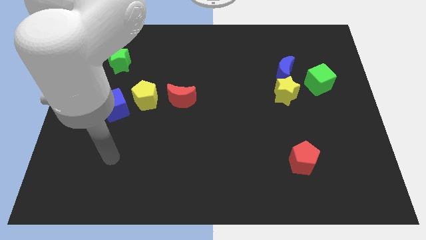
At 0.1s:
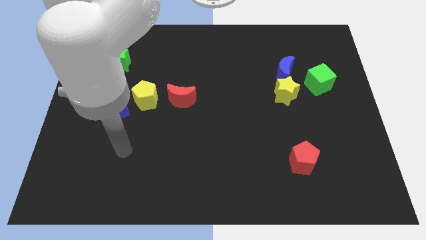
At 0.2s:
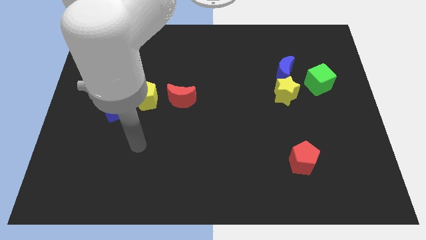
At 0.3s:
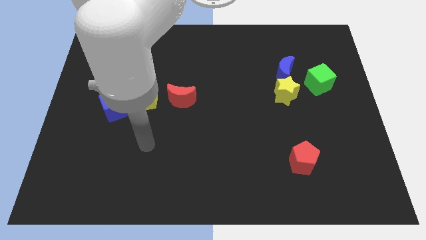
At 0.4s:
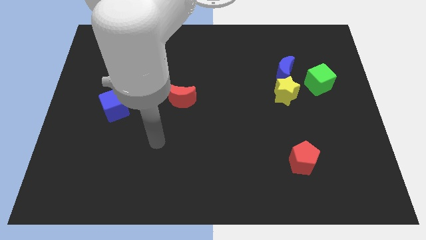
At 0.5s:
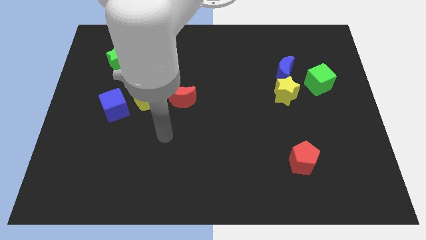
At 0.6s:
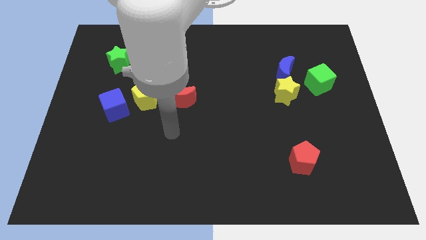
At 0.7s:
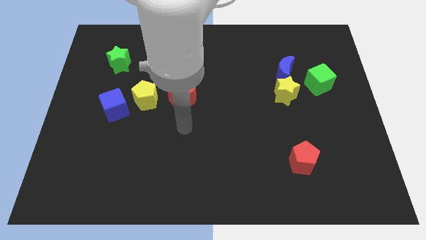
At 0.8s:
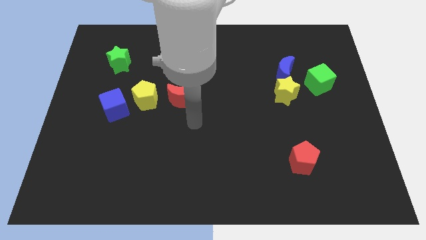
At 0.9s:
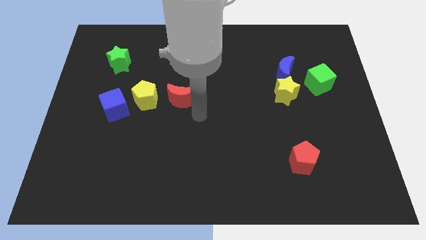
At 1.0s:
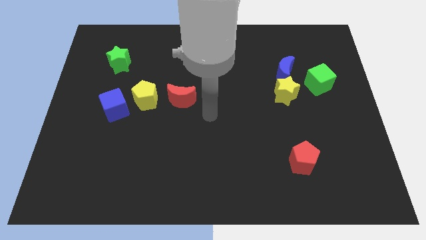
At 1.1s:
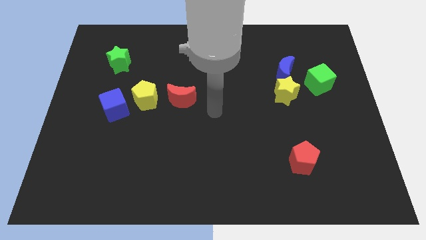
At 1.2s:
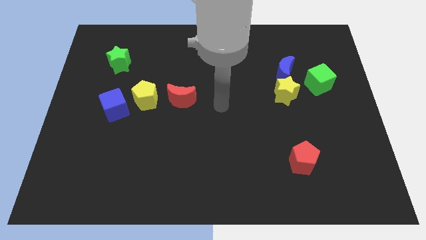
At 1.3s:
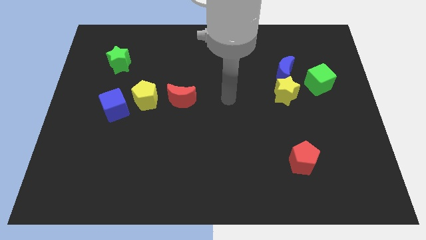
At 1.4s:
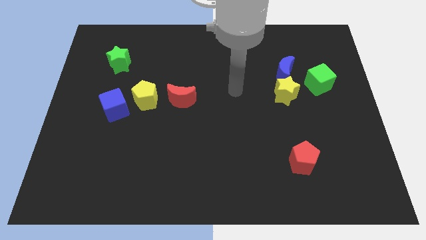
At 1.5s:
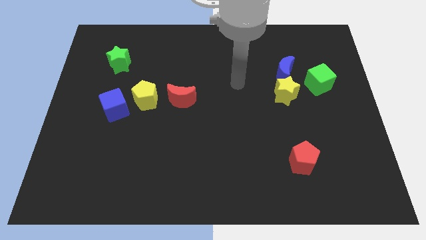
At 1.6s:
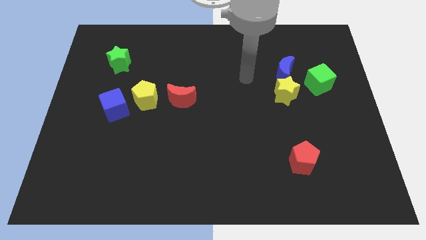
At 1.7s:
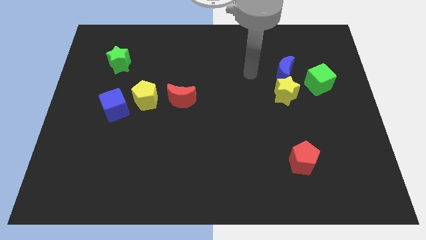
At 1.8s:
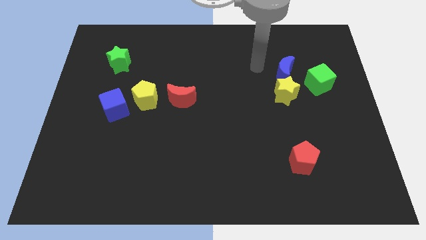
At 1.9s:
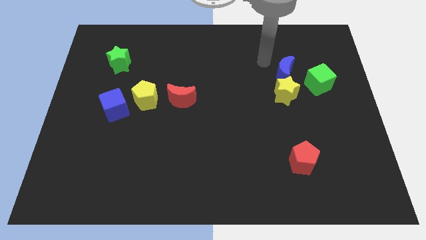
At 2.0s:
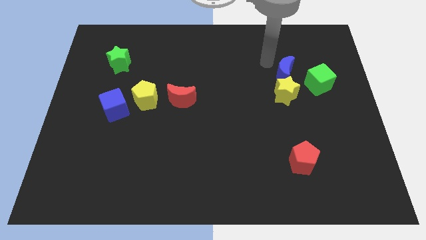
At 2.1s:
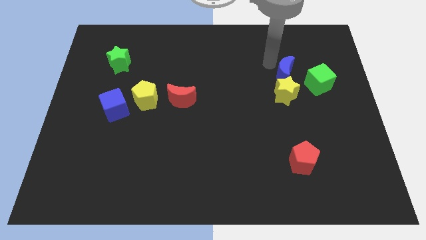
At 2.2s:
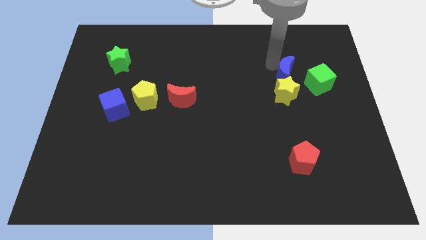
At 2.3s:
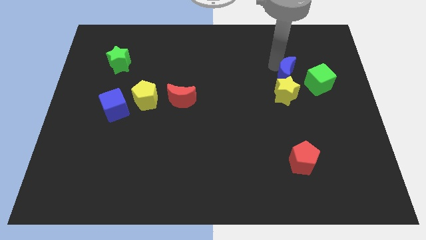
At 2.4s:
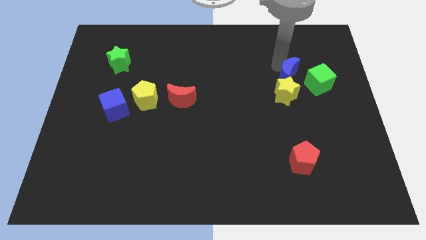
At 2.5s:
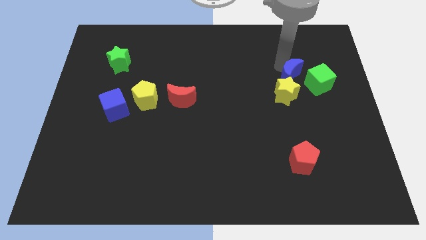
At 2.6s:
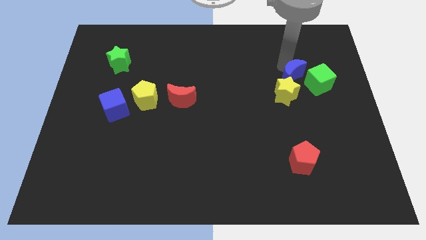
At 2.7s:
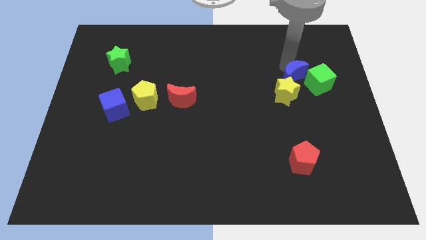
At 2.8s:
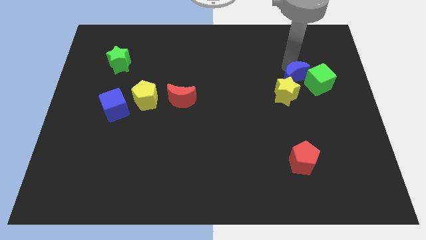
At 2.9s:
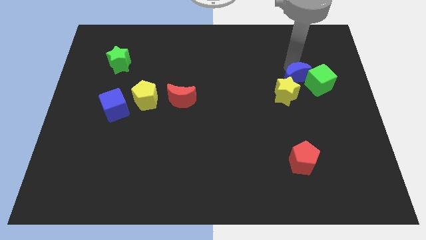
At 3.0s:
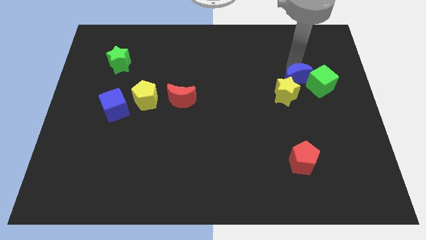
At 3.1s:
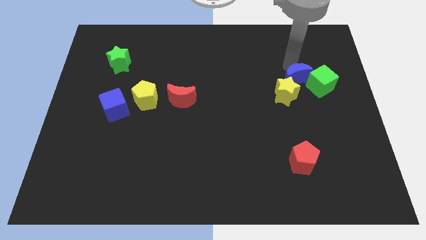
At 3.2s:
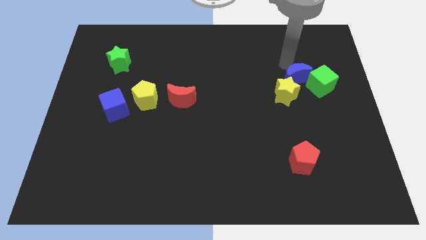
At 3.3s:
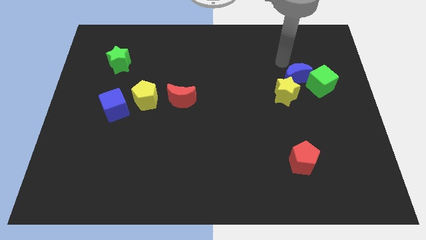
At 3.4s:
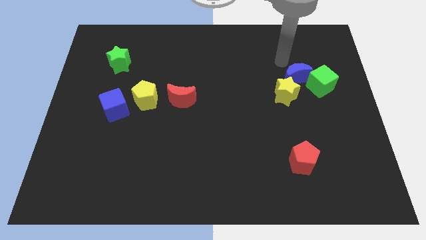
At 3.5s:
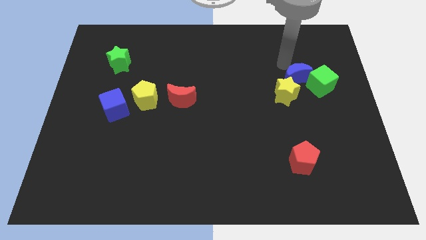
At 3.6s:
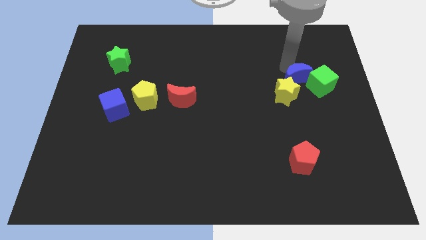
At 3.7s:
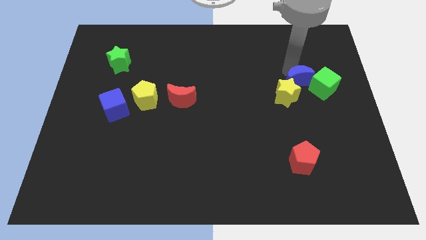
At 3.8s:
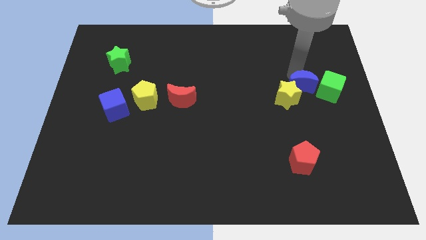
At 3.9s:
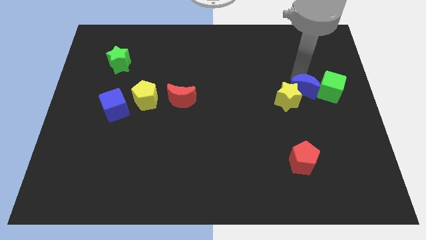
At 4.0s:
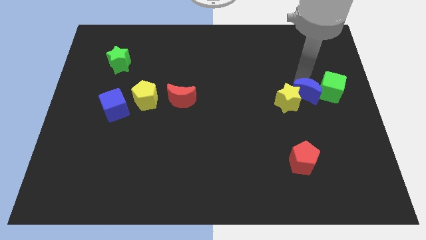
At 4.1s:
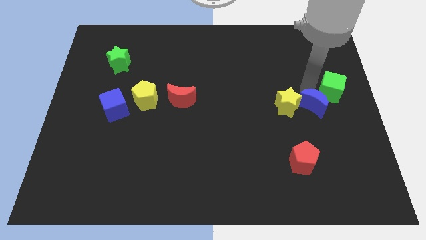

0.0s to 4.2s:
slightly slide the blue moon down

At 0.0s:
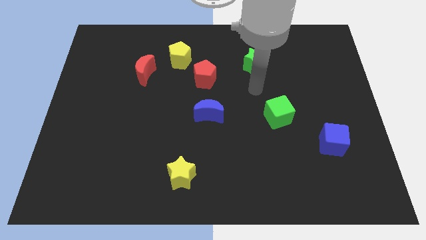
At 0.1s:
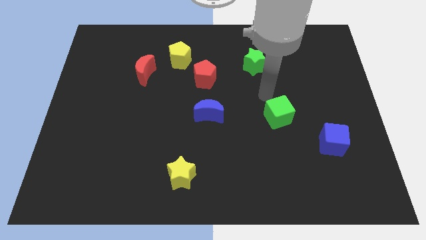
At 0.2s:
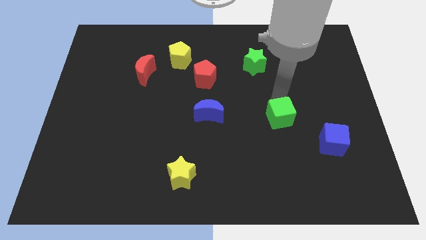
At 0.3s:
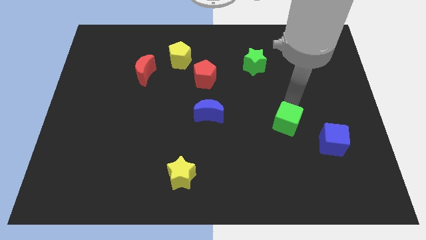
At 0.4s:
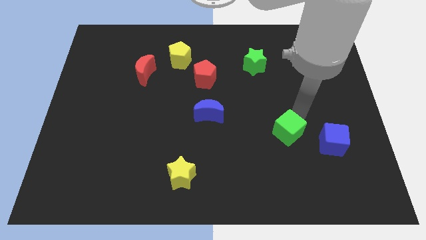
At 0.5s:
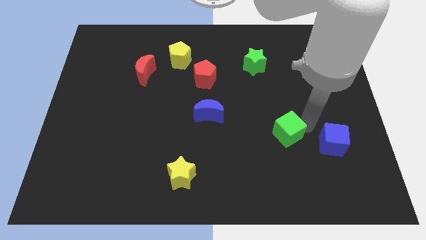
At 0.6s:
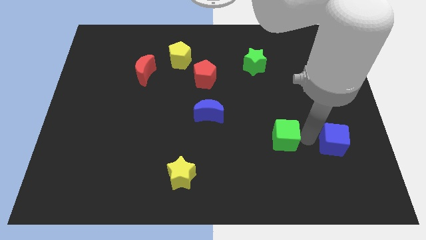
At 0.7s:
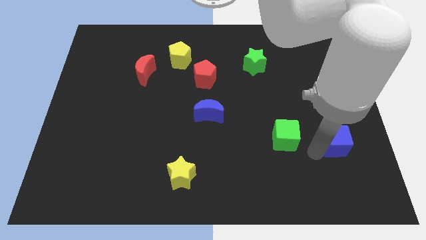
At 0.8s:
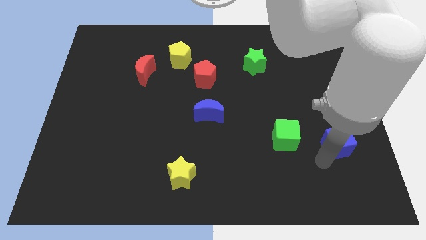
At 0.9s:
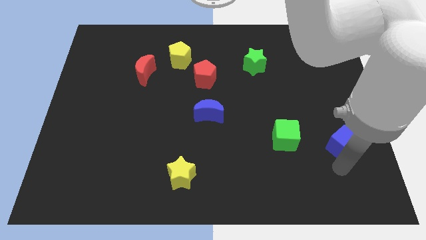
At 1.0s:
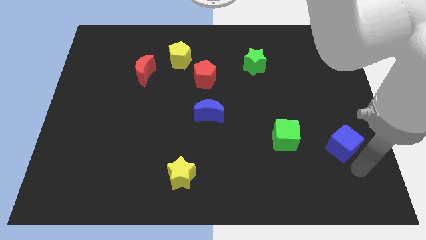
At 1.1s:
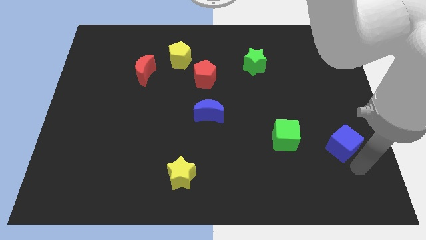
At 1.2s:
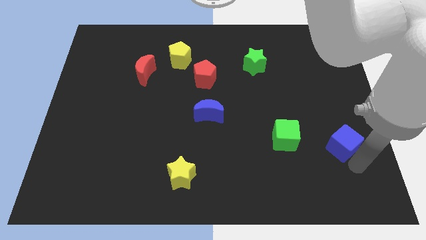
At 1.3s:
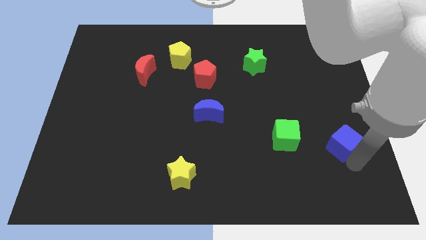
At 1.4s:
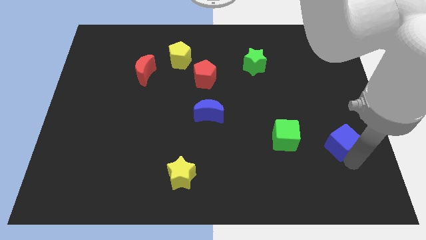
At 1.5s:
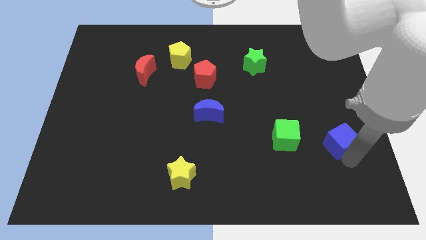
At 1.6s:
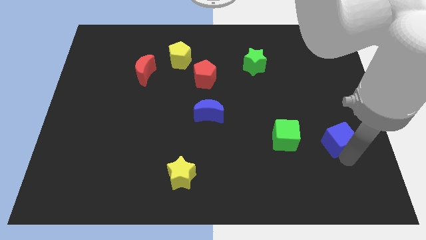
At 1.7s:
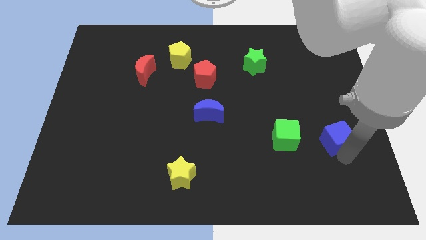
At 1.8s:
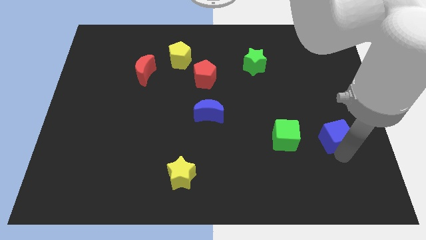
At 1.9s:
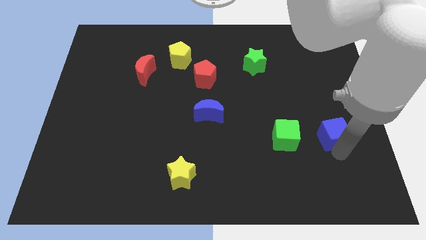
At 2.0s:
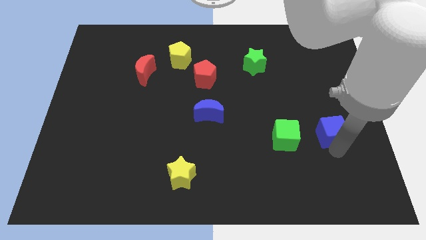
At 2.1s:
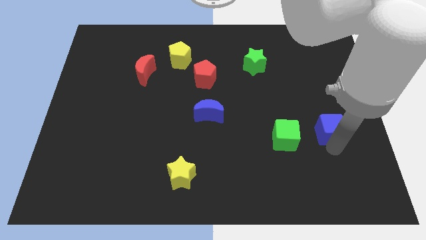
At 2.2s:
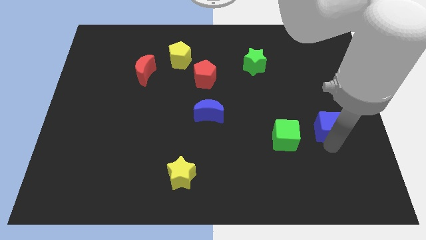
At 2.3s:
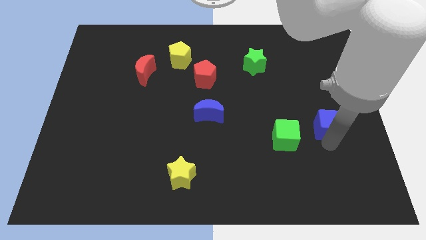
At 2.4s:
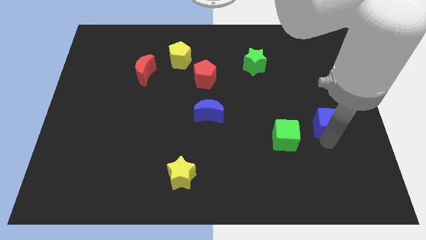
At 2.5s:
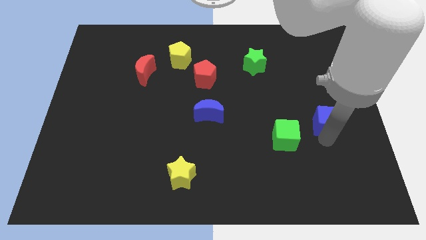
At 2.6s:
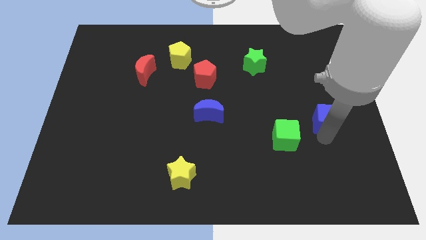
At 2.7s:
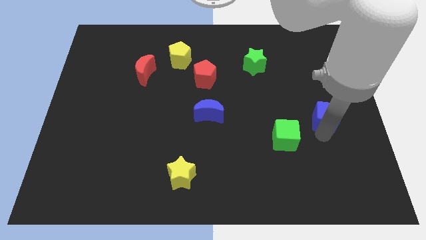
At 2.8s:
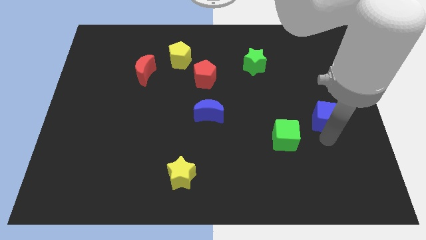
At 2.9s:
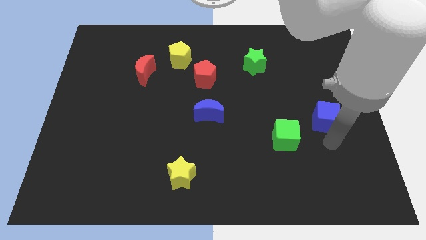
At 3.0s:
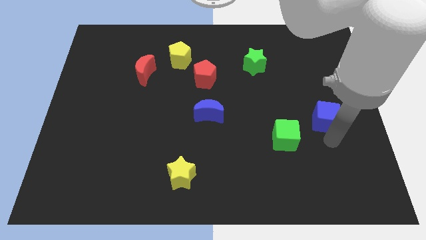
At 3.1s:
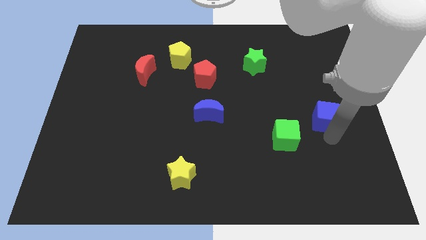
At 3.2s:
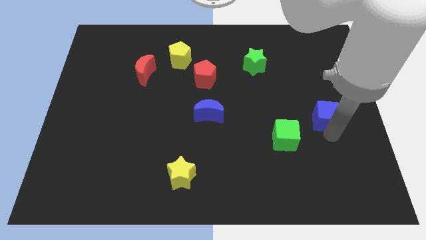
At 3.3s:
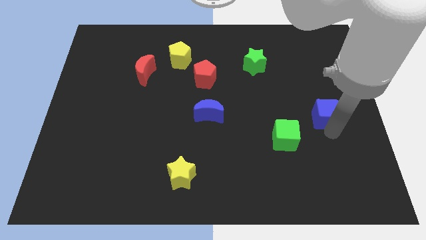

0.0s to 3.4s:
slightly move the blue cube up

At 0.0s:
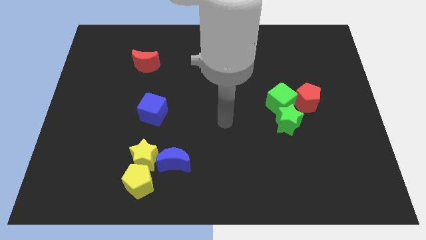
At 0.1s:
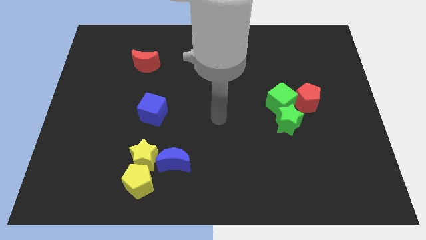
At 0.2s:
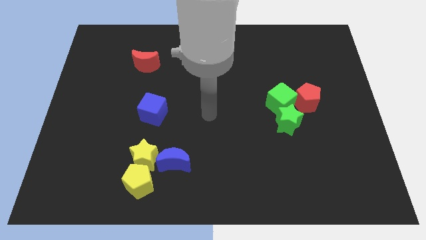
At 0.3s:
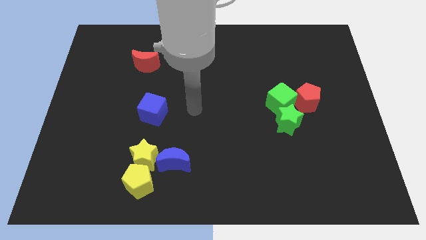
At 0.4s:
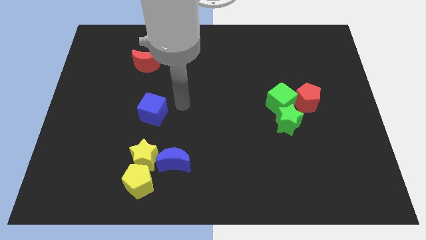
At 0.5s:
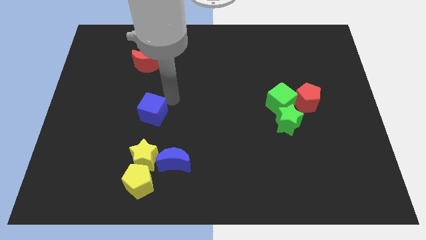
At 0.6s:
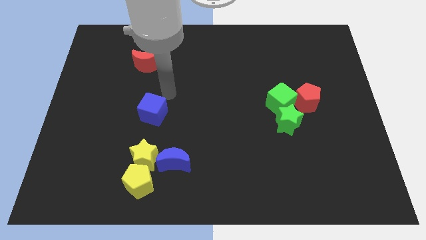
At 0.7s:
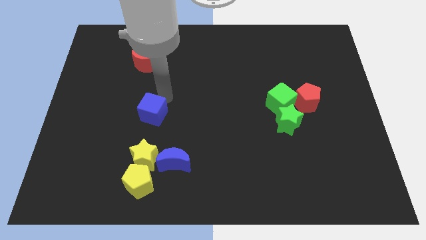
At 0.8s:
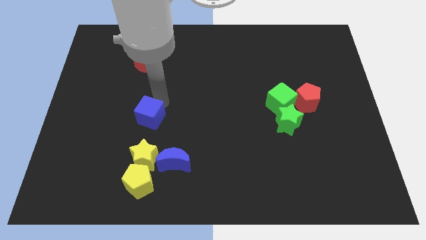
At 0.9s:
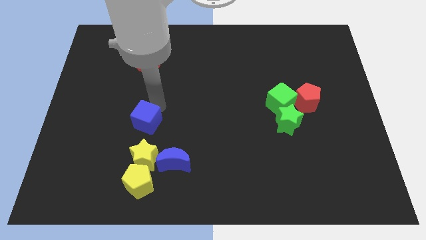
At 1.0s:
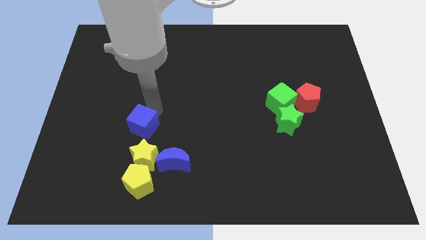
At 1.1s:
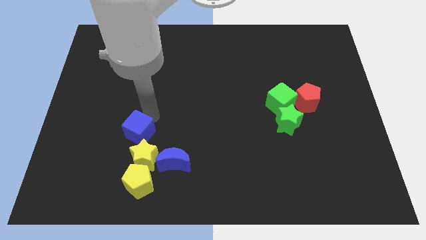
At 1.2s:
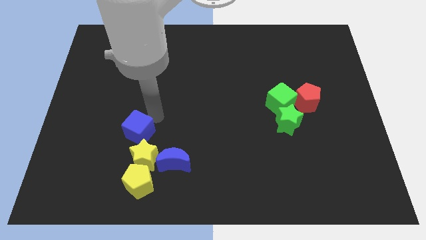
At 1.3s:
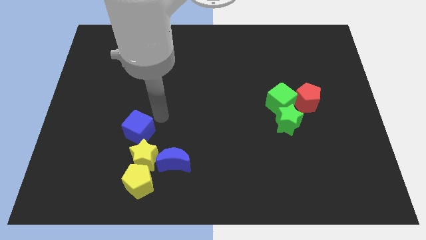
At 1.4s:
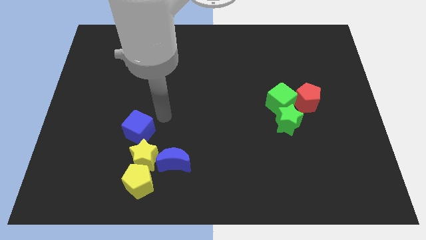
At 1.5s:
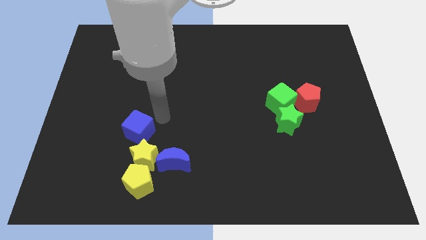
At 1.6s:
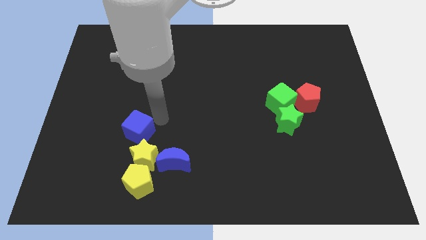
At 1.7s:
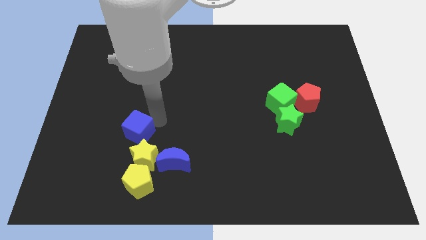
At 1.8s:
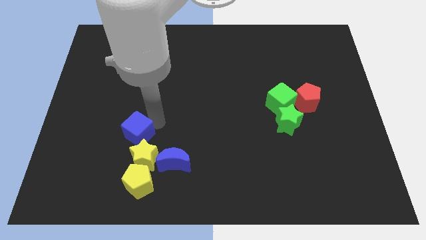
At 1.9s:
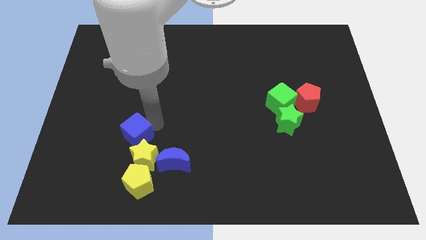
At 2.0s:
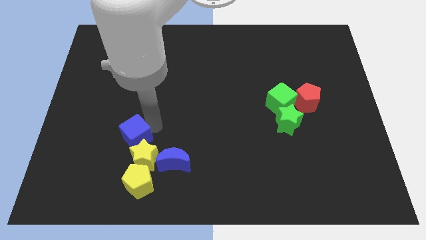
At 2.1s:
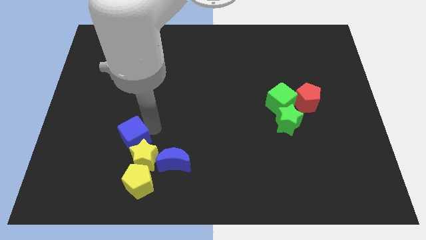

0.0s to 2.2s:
slightly move the blue cube downwards and to the left
